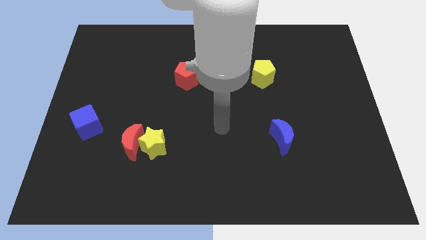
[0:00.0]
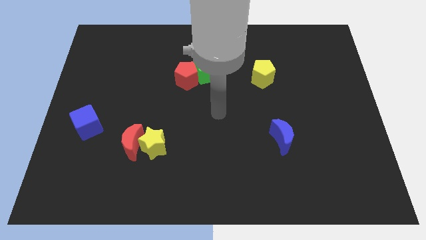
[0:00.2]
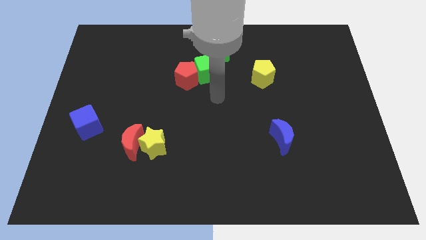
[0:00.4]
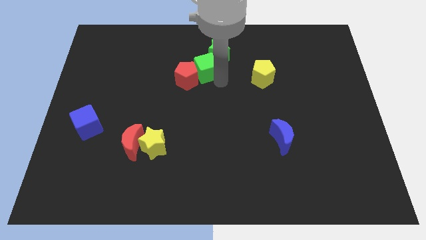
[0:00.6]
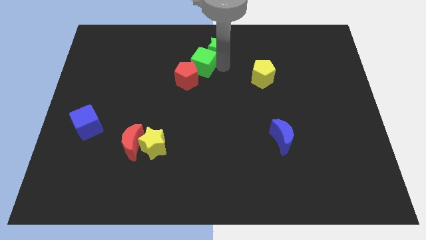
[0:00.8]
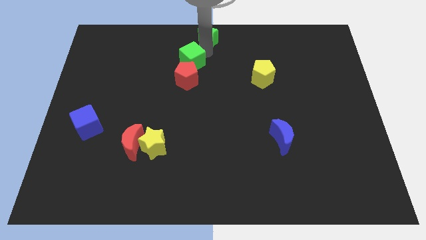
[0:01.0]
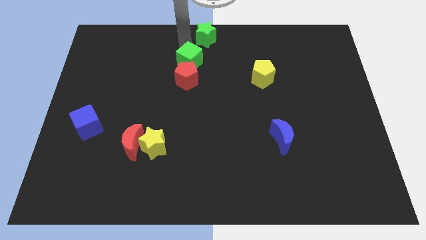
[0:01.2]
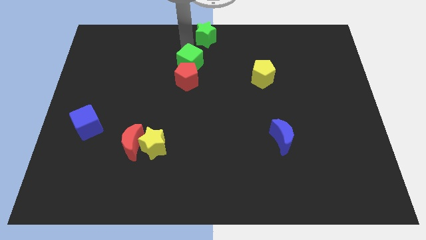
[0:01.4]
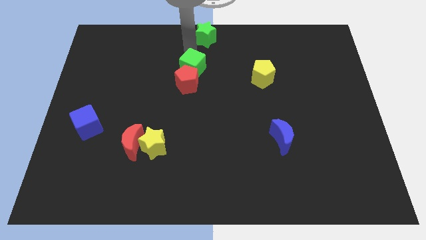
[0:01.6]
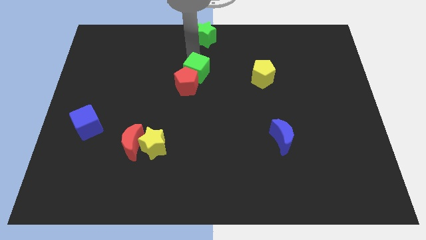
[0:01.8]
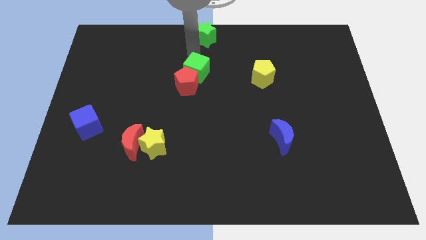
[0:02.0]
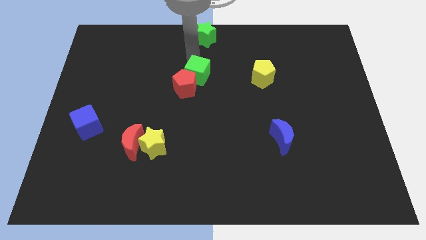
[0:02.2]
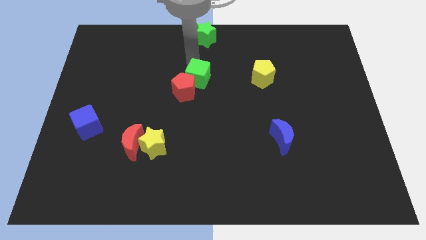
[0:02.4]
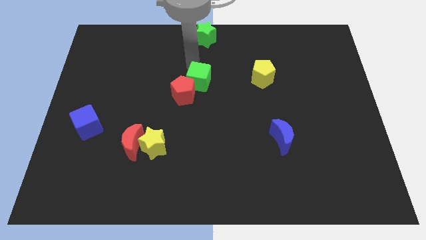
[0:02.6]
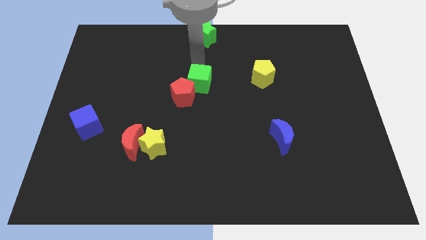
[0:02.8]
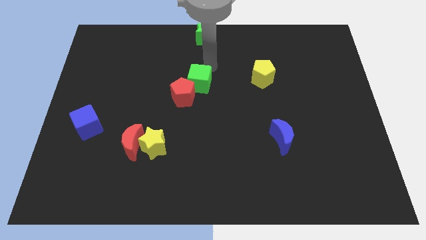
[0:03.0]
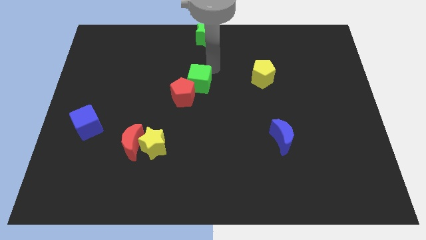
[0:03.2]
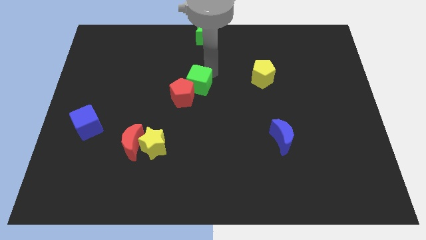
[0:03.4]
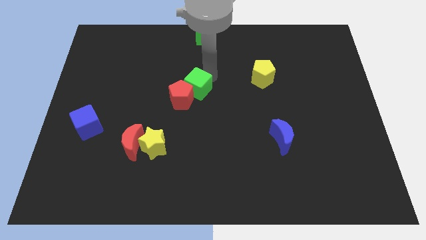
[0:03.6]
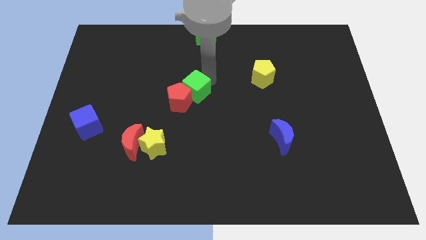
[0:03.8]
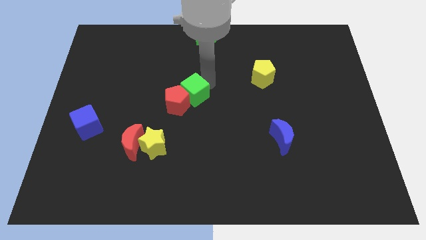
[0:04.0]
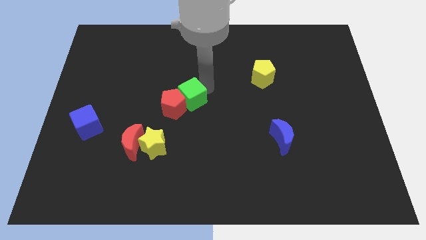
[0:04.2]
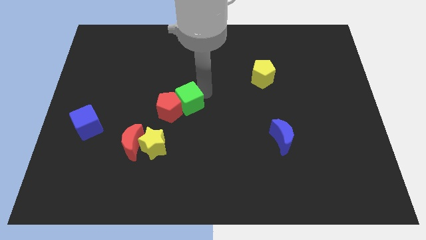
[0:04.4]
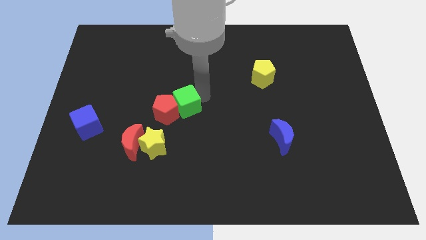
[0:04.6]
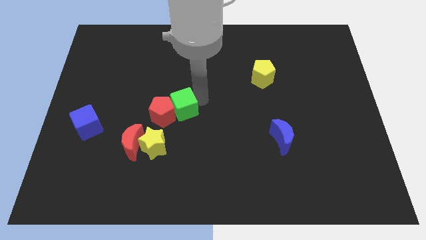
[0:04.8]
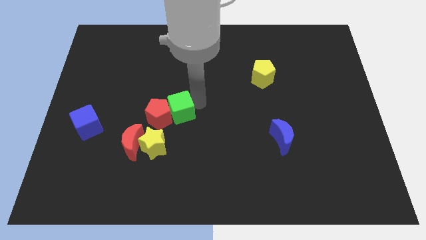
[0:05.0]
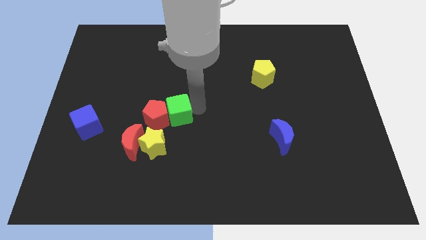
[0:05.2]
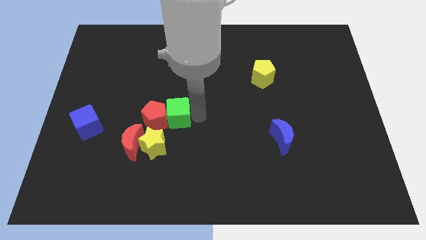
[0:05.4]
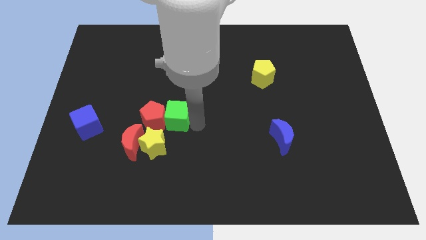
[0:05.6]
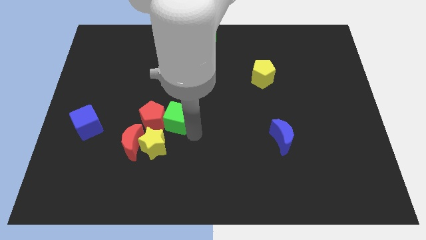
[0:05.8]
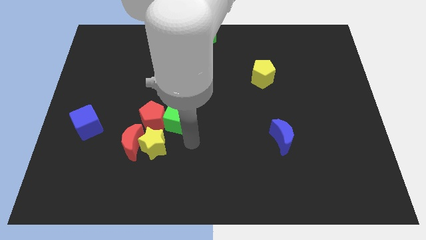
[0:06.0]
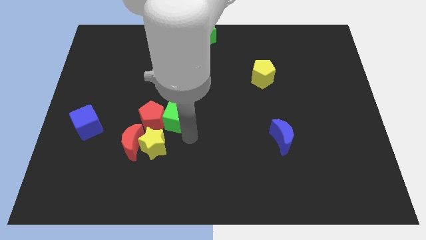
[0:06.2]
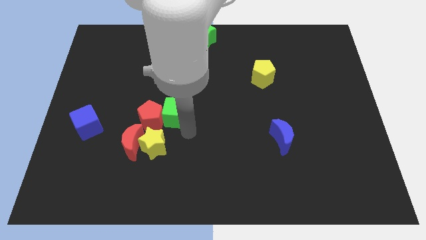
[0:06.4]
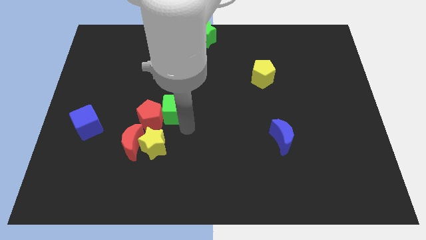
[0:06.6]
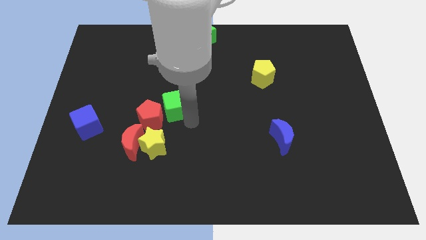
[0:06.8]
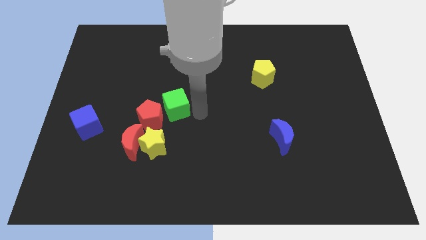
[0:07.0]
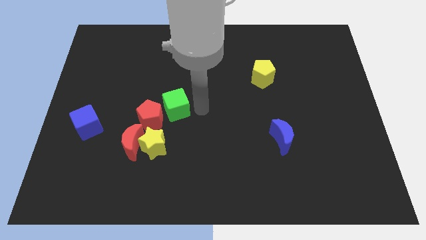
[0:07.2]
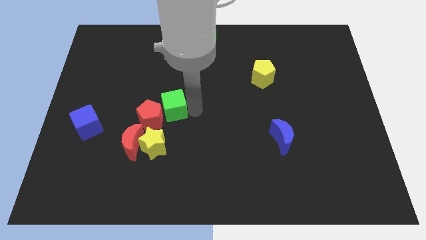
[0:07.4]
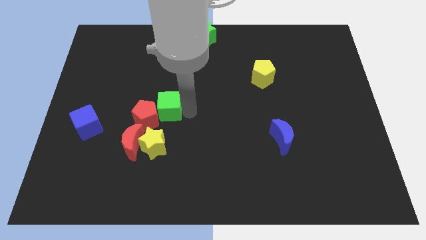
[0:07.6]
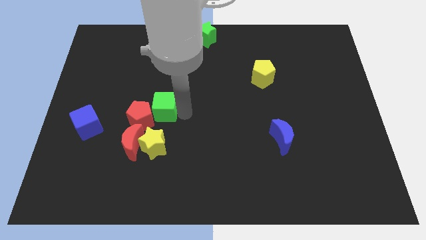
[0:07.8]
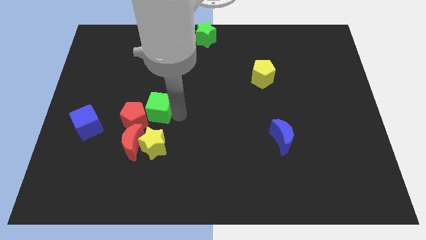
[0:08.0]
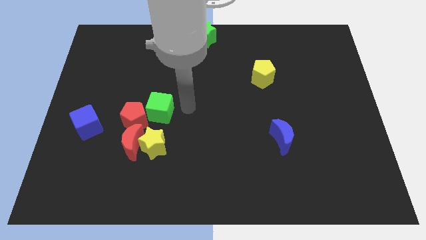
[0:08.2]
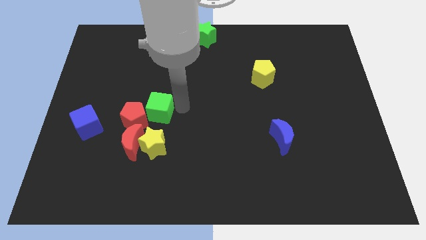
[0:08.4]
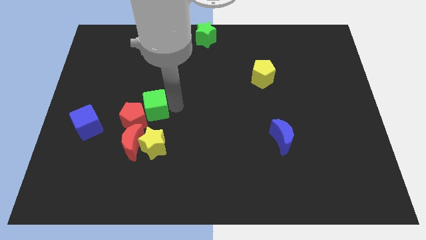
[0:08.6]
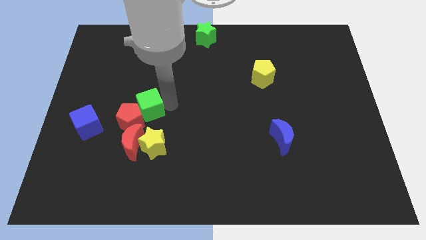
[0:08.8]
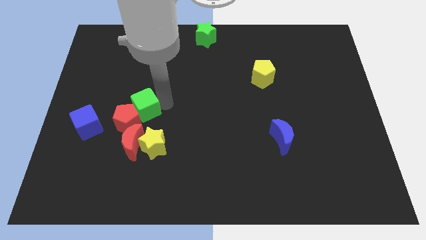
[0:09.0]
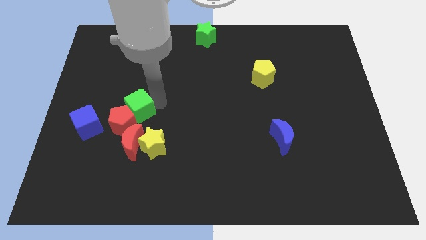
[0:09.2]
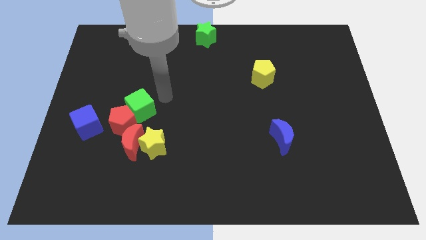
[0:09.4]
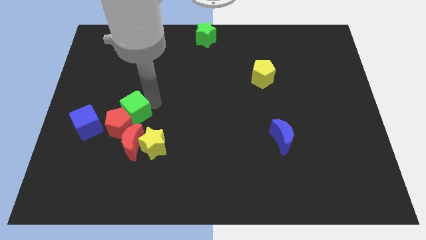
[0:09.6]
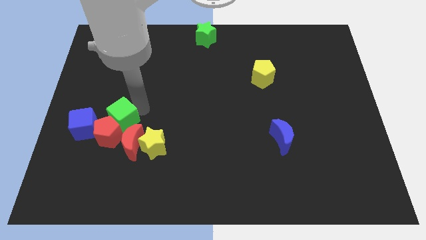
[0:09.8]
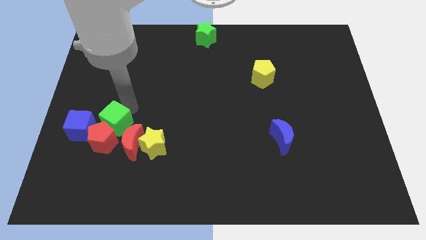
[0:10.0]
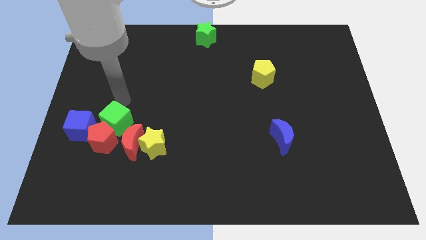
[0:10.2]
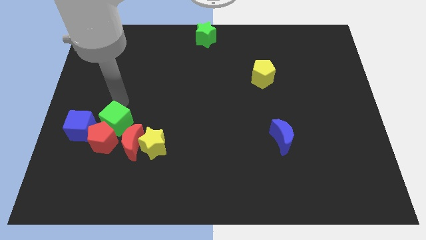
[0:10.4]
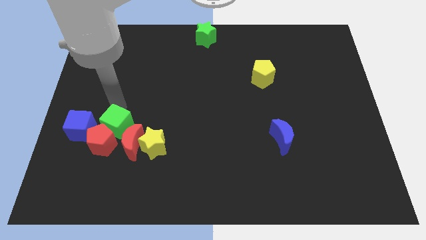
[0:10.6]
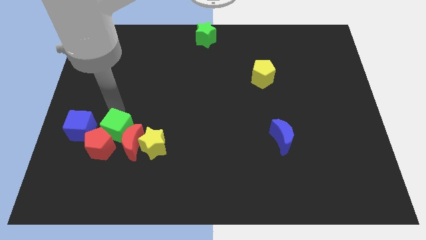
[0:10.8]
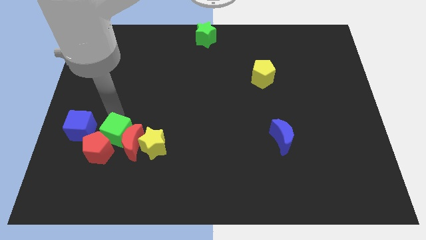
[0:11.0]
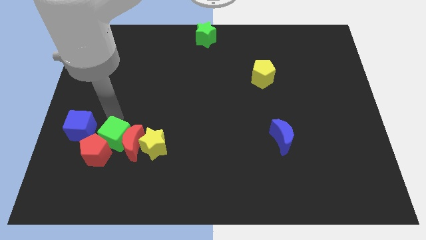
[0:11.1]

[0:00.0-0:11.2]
put the green cube to the bottom left side of the red moon

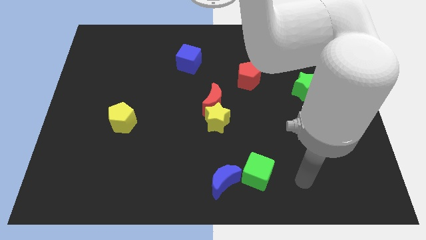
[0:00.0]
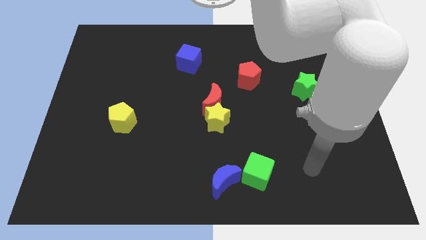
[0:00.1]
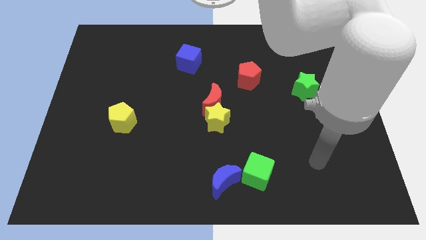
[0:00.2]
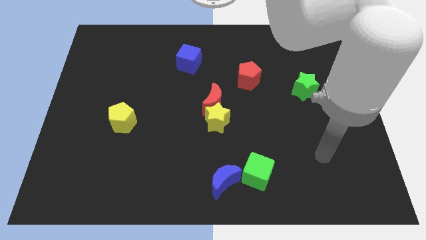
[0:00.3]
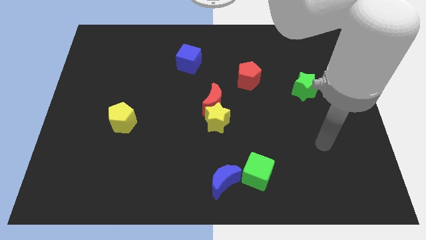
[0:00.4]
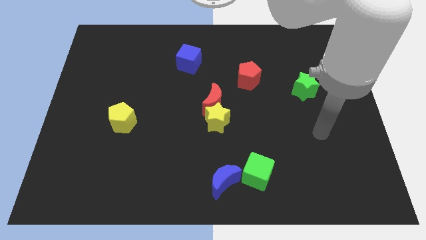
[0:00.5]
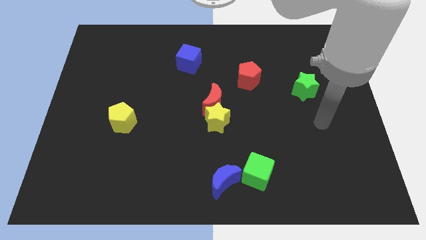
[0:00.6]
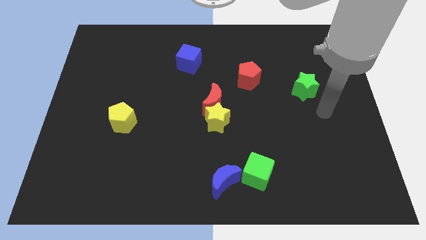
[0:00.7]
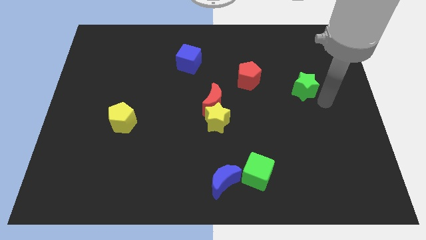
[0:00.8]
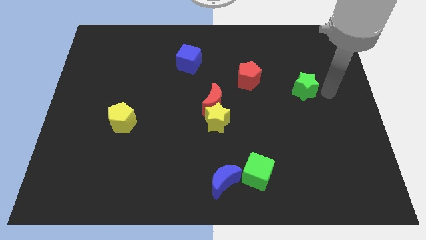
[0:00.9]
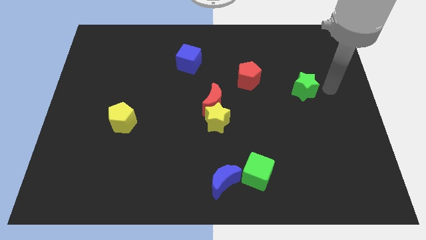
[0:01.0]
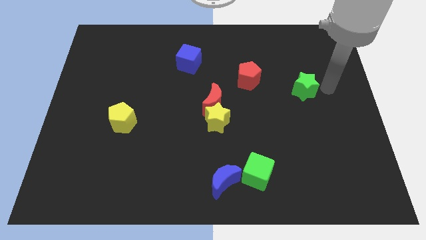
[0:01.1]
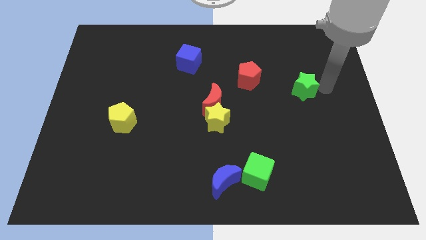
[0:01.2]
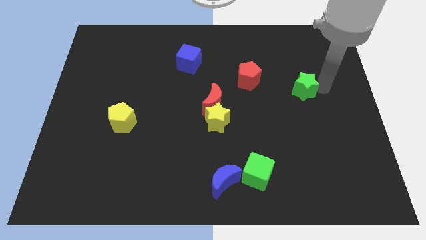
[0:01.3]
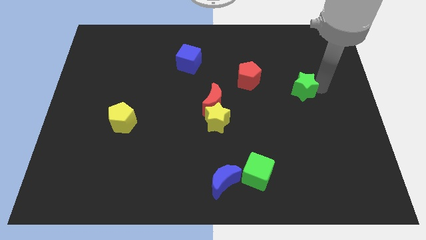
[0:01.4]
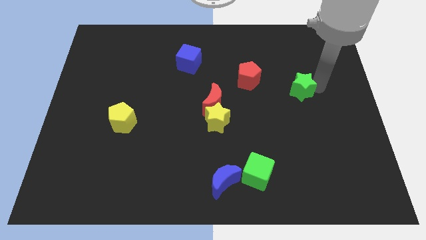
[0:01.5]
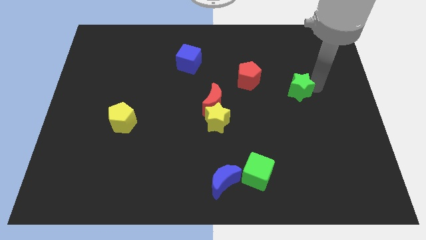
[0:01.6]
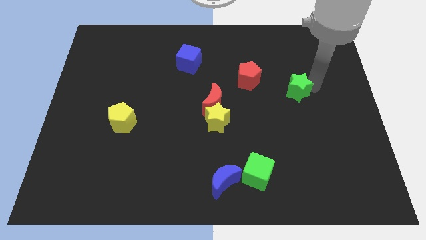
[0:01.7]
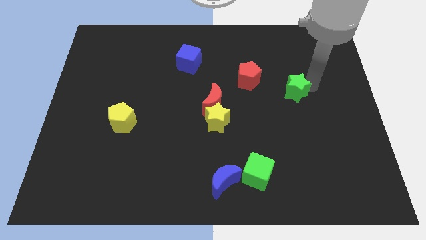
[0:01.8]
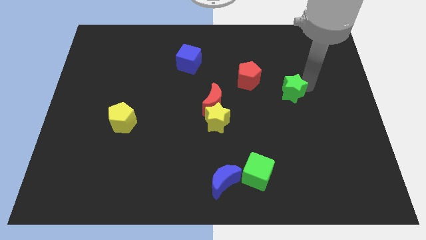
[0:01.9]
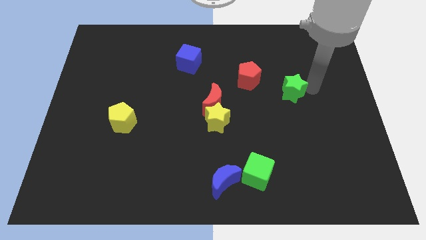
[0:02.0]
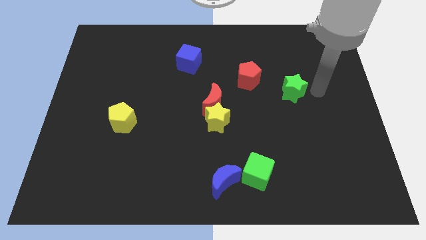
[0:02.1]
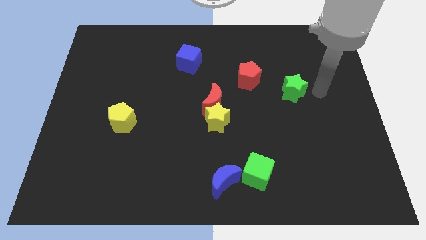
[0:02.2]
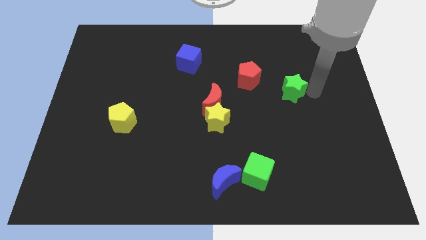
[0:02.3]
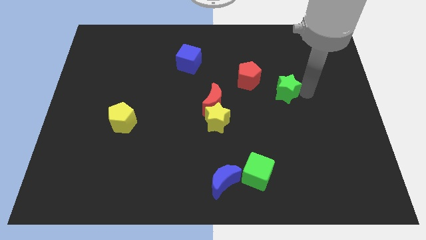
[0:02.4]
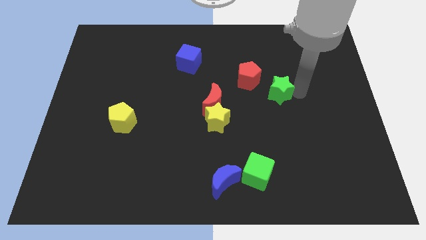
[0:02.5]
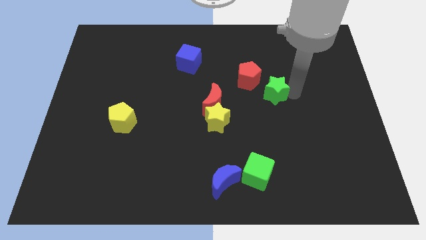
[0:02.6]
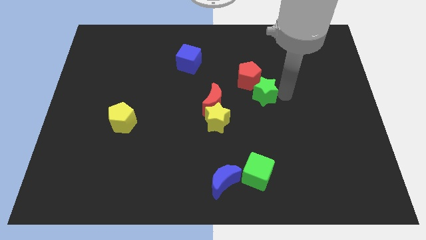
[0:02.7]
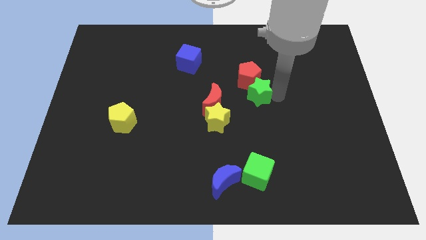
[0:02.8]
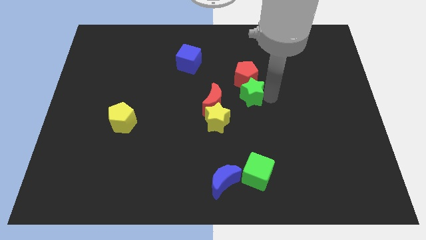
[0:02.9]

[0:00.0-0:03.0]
put the green star to the top right of the red moon
